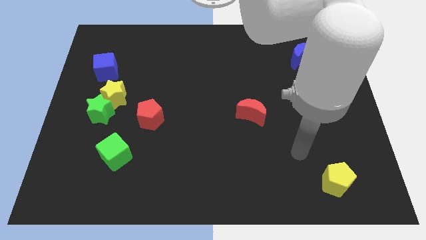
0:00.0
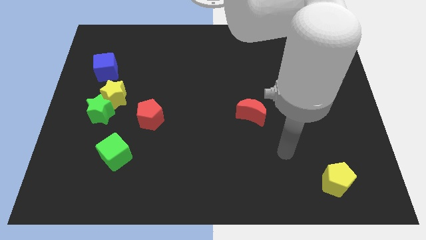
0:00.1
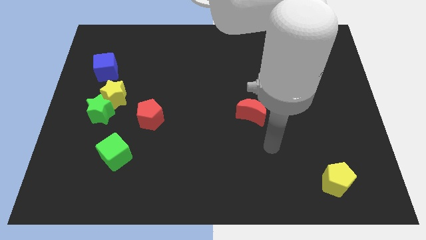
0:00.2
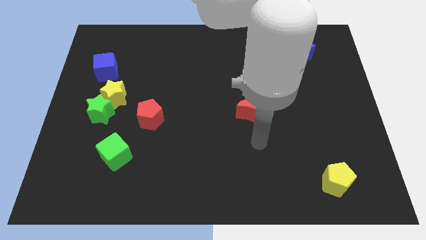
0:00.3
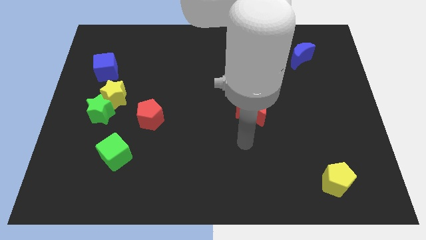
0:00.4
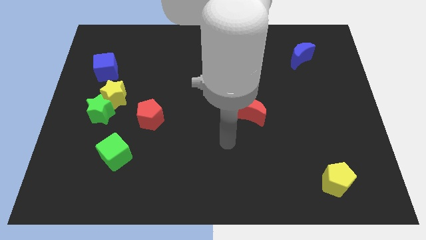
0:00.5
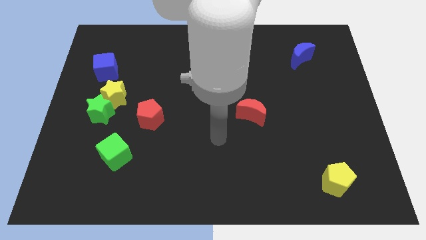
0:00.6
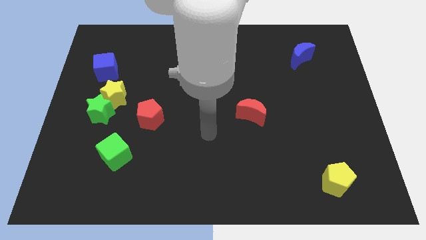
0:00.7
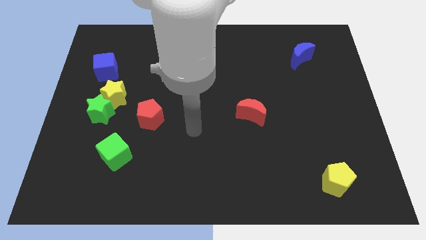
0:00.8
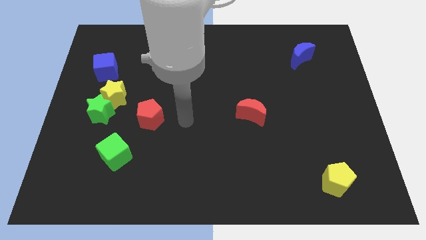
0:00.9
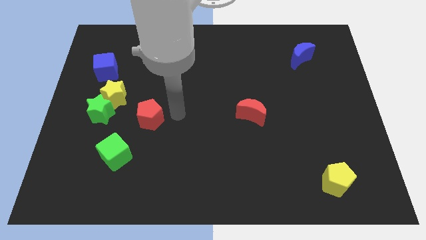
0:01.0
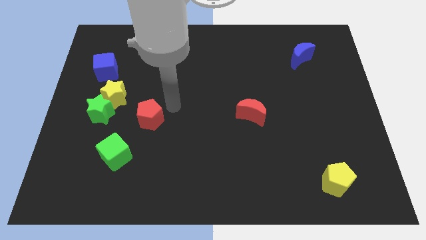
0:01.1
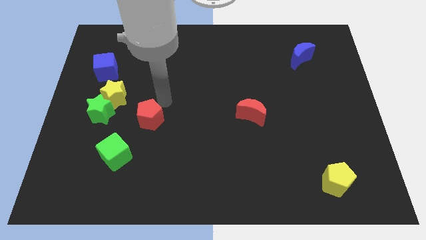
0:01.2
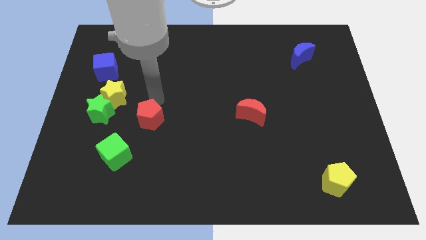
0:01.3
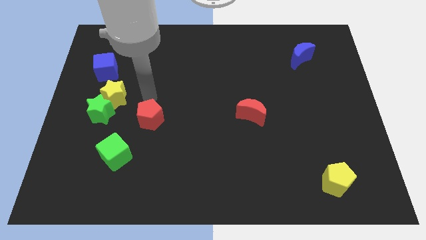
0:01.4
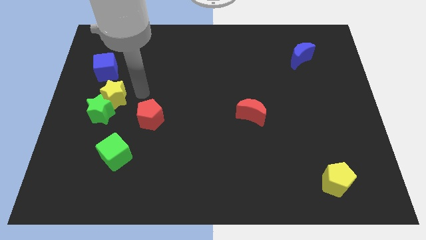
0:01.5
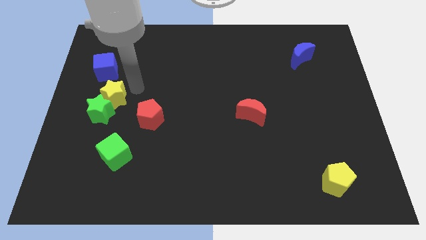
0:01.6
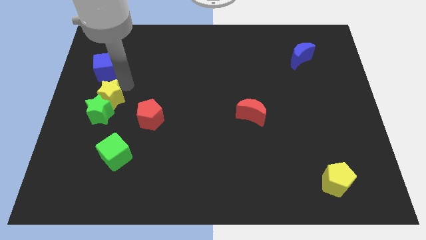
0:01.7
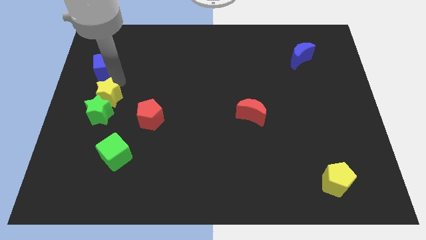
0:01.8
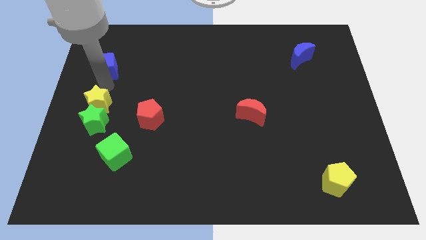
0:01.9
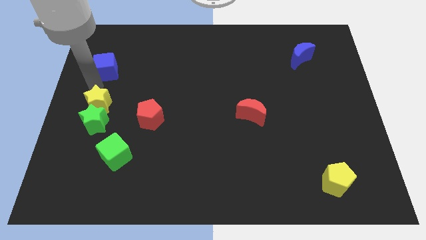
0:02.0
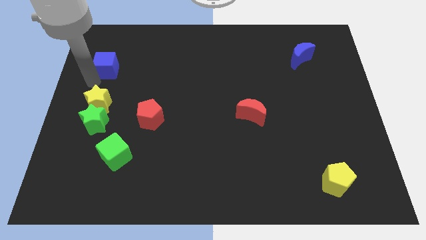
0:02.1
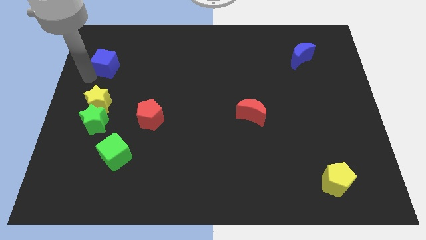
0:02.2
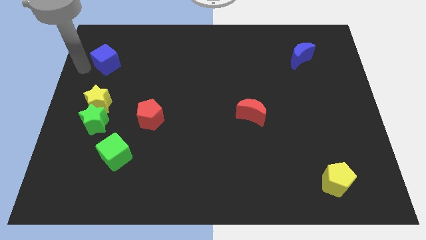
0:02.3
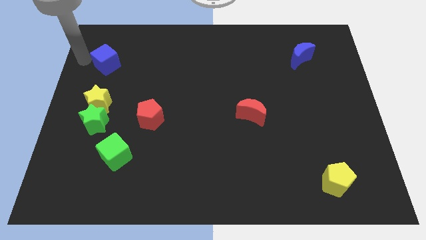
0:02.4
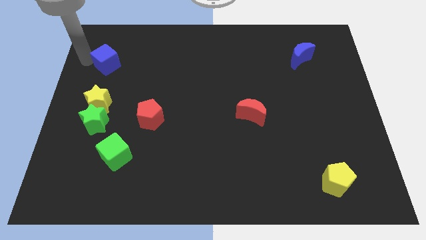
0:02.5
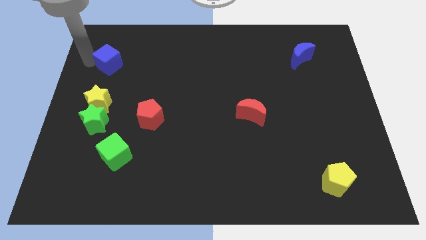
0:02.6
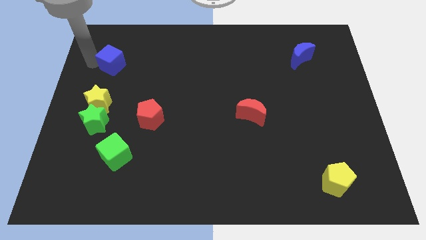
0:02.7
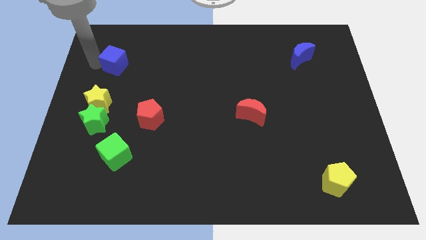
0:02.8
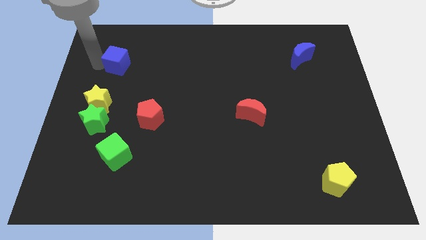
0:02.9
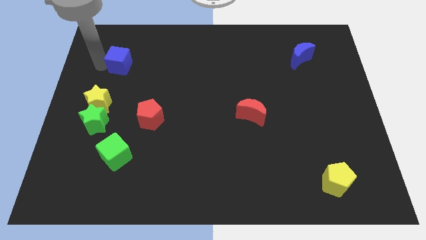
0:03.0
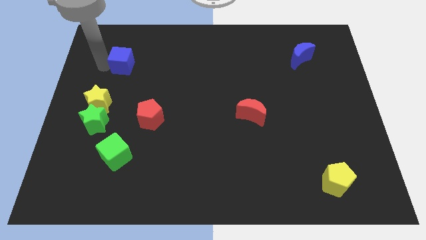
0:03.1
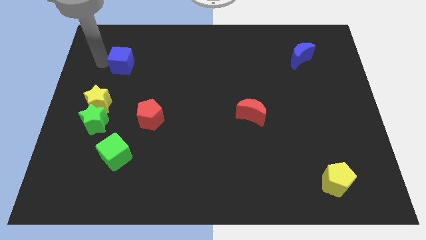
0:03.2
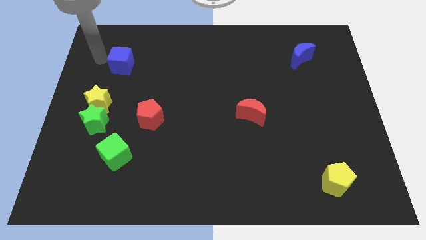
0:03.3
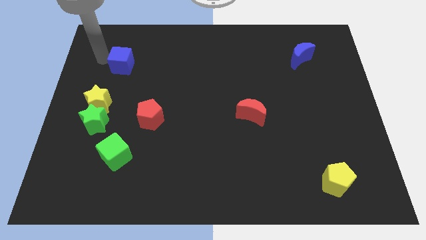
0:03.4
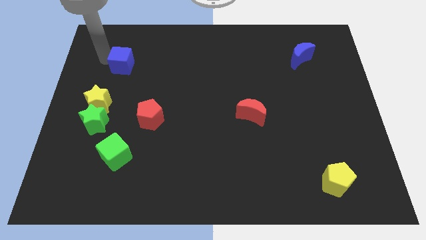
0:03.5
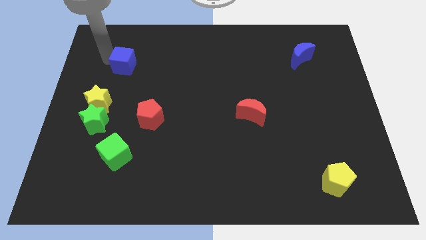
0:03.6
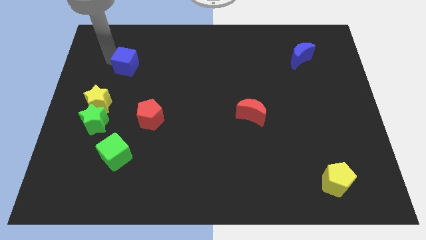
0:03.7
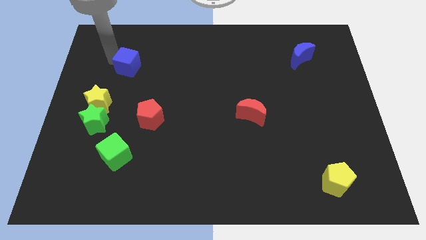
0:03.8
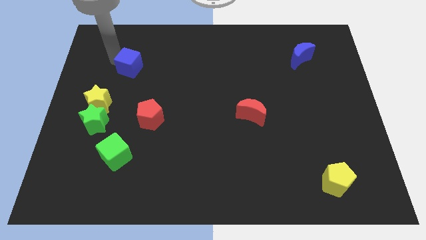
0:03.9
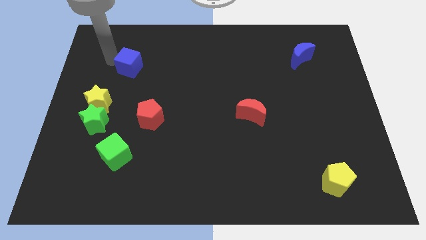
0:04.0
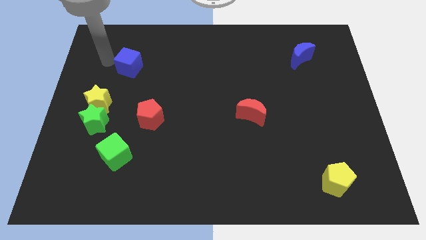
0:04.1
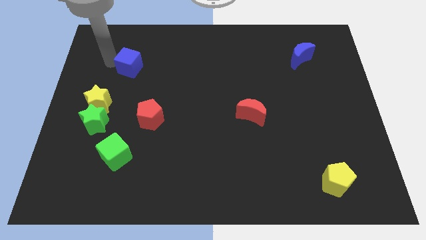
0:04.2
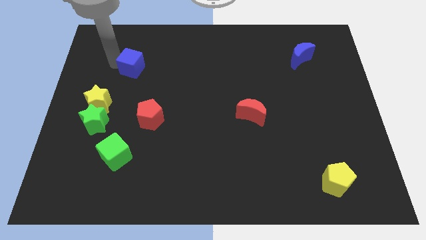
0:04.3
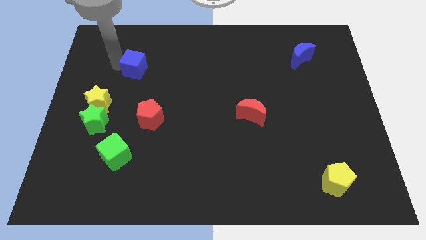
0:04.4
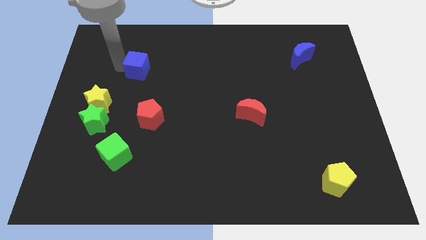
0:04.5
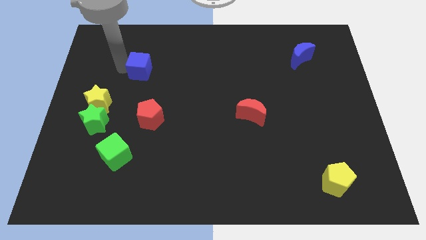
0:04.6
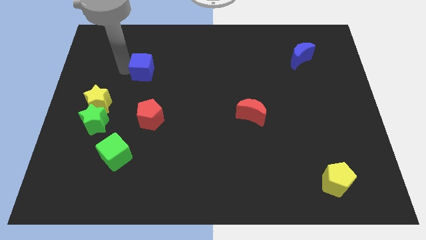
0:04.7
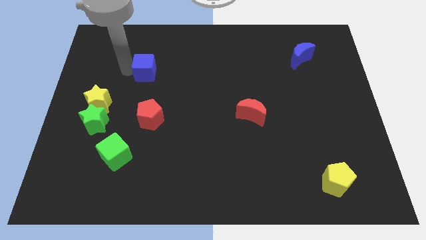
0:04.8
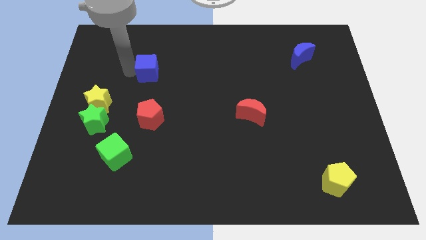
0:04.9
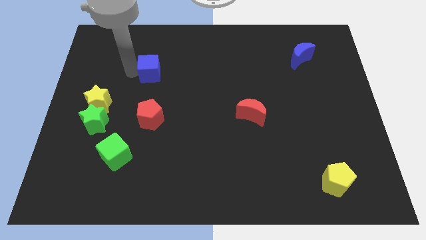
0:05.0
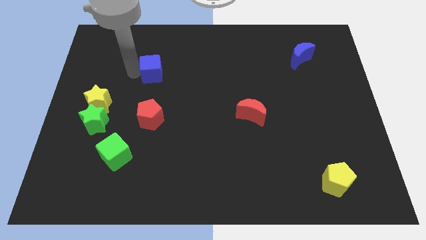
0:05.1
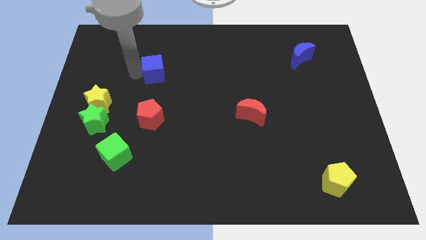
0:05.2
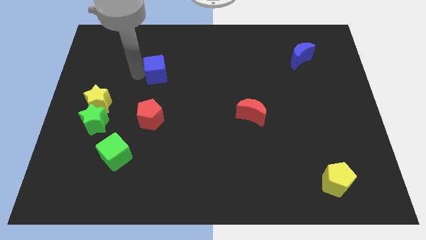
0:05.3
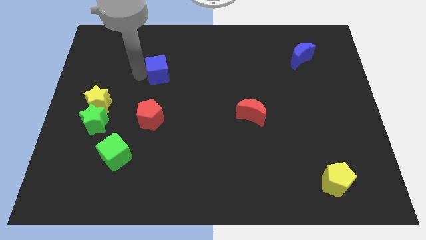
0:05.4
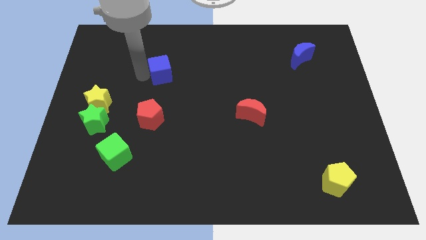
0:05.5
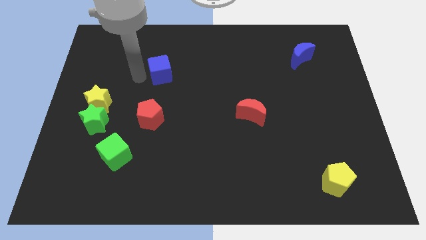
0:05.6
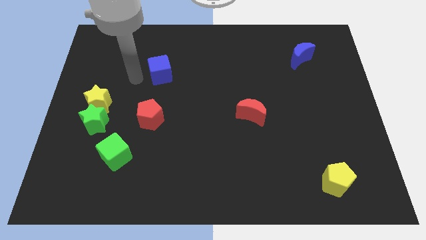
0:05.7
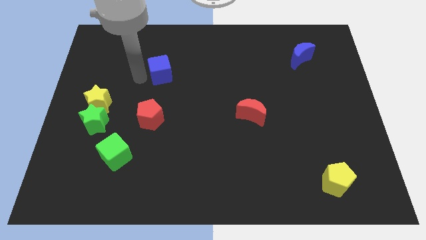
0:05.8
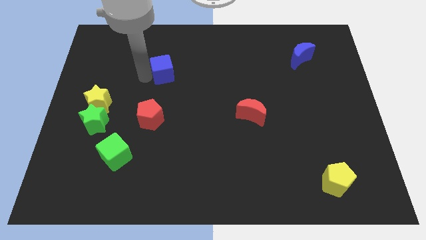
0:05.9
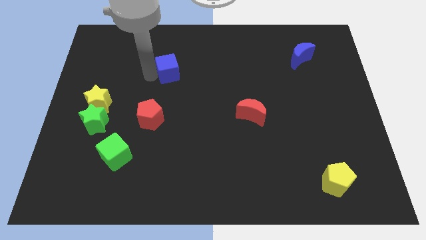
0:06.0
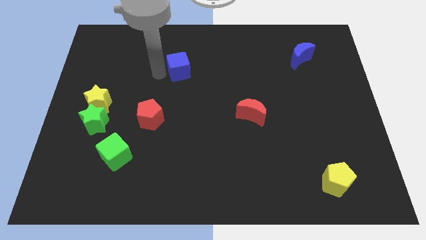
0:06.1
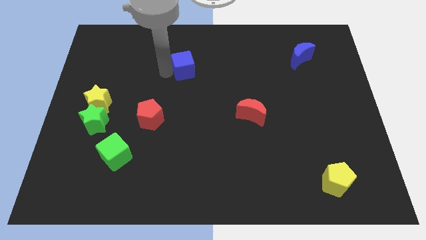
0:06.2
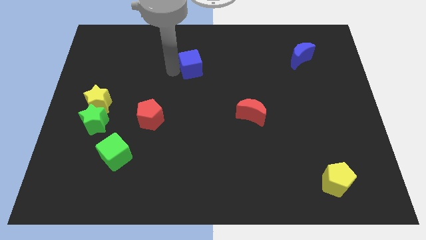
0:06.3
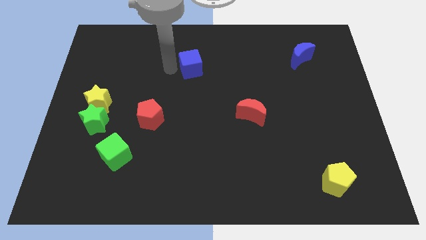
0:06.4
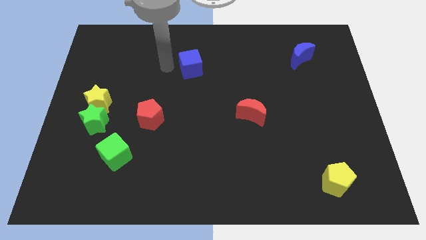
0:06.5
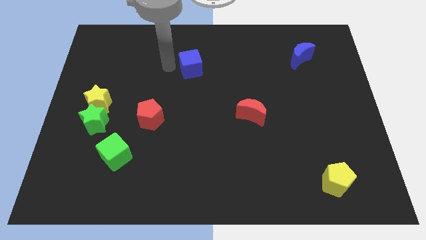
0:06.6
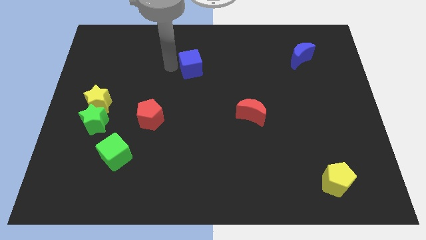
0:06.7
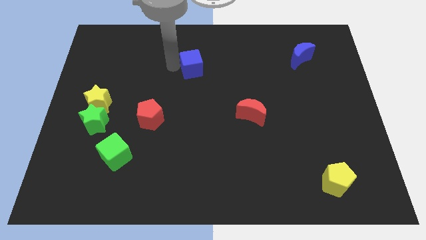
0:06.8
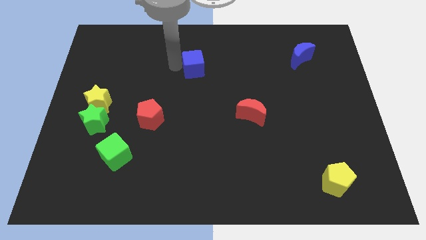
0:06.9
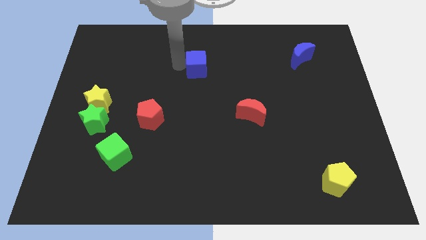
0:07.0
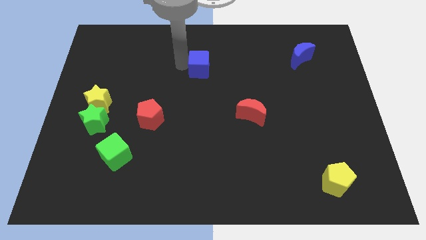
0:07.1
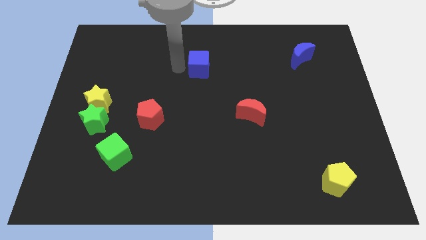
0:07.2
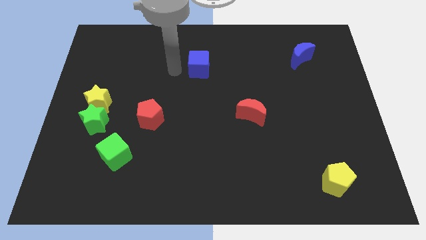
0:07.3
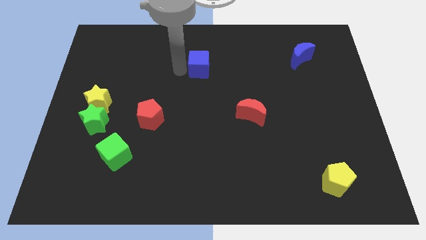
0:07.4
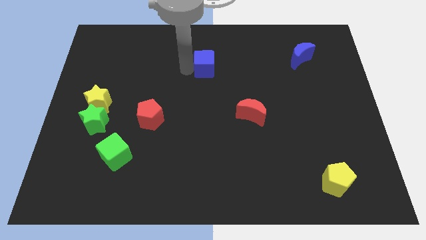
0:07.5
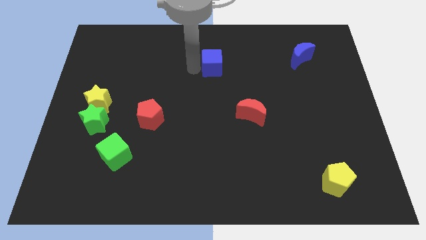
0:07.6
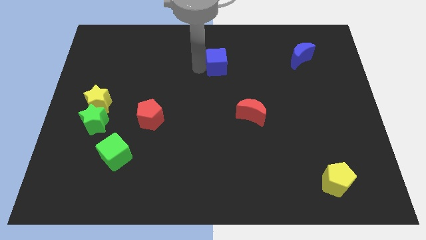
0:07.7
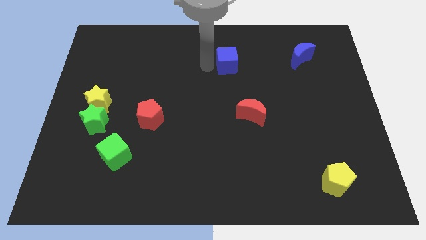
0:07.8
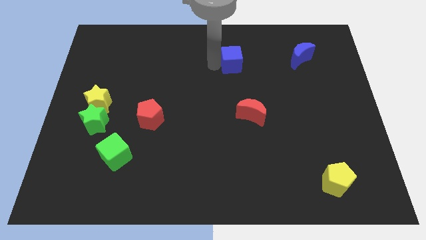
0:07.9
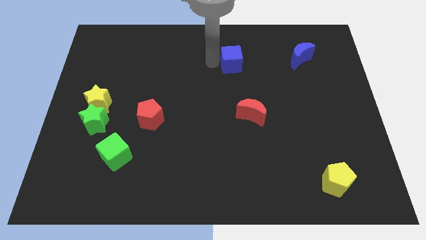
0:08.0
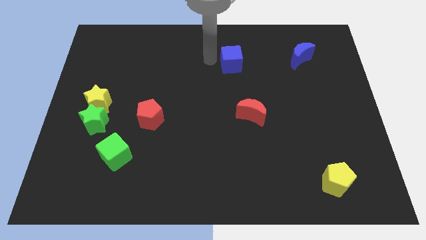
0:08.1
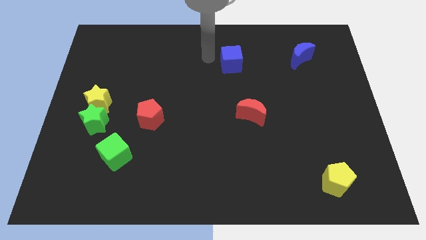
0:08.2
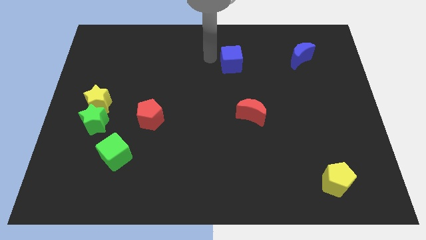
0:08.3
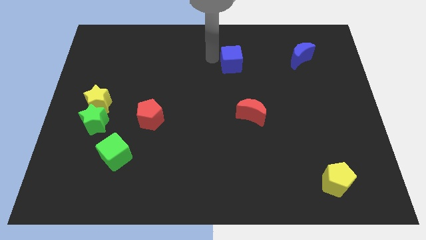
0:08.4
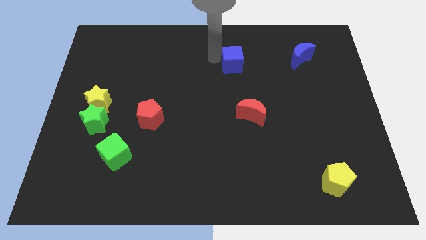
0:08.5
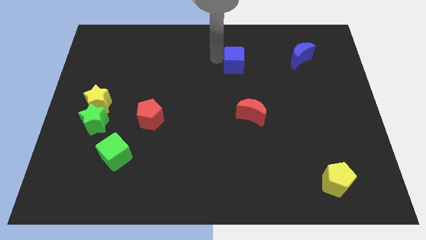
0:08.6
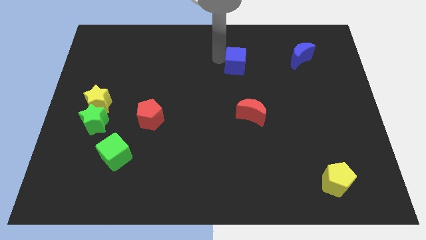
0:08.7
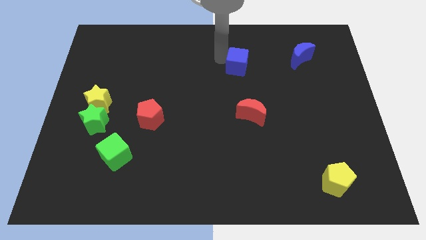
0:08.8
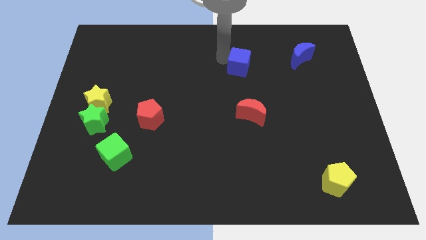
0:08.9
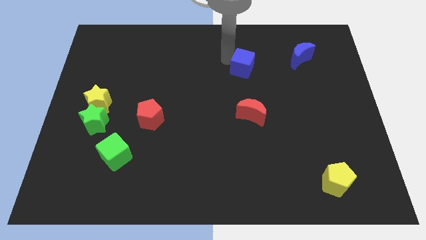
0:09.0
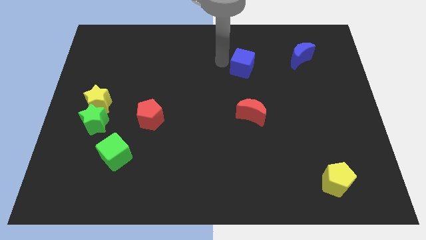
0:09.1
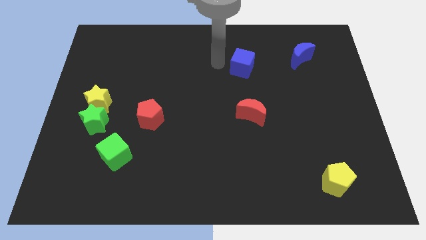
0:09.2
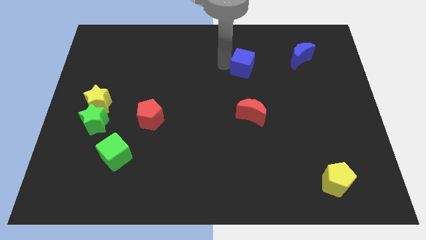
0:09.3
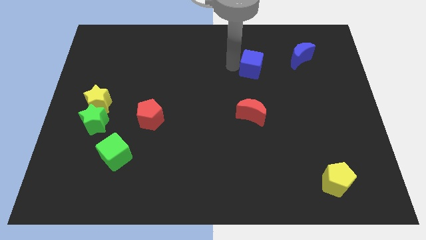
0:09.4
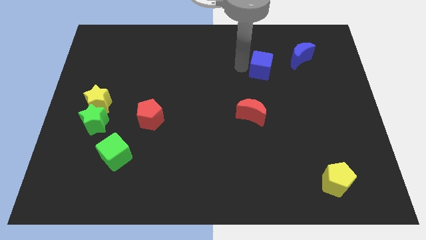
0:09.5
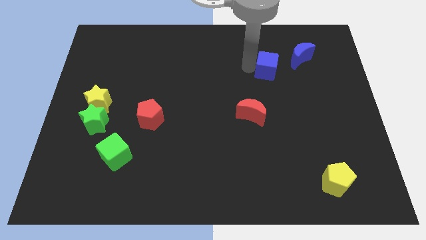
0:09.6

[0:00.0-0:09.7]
move the blue cube to the bottom left side of the blue moon
